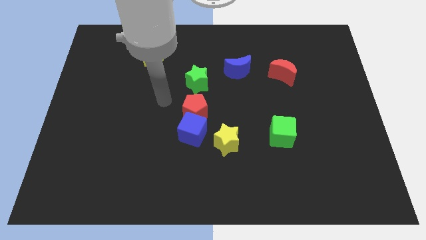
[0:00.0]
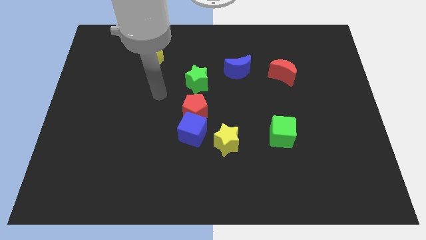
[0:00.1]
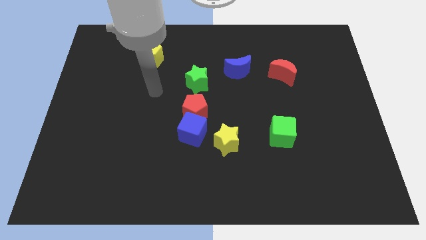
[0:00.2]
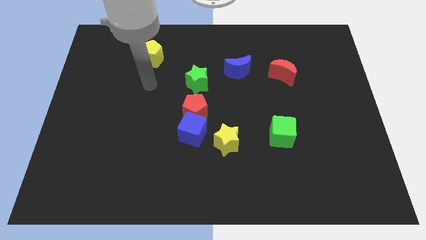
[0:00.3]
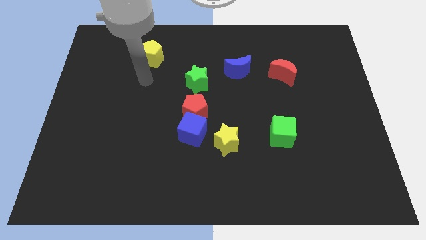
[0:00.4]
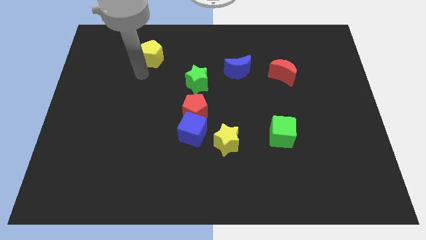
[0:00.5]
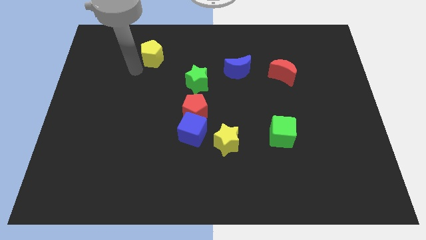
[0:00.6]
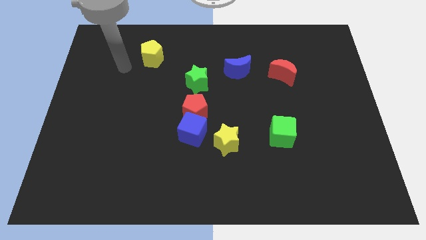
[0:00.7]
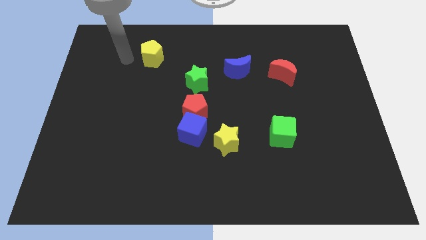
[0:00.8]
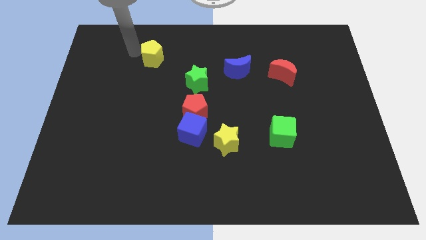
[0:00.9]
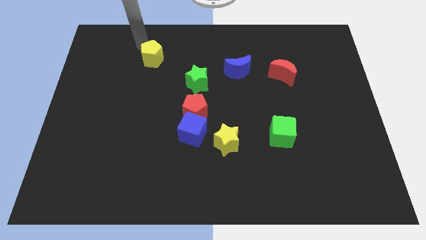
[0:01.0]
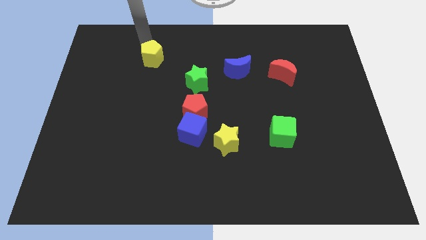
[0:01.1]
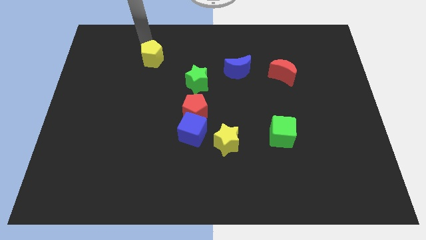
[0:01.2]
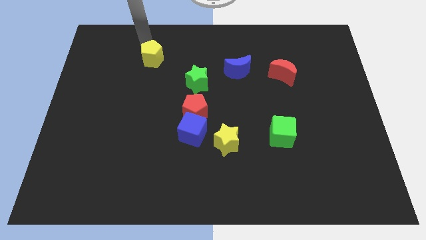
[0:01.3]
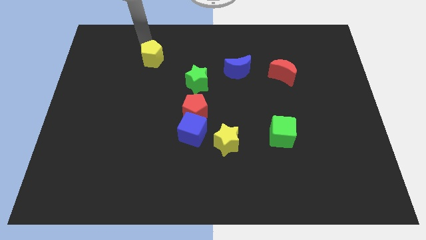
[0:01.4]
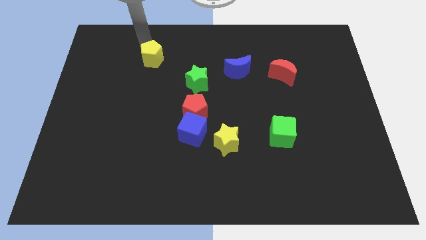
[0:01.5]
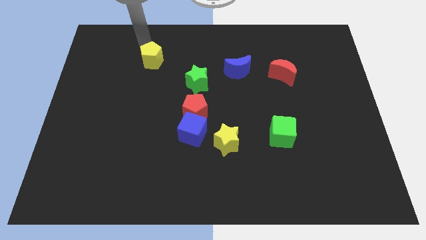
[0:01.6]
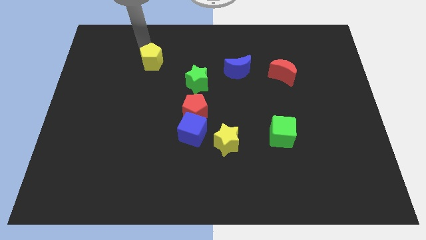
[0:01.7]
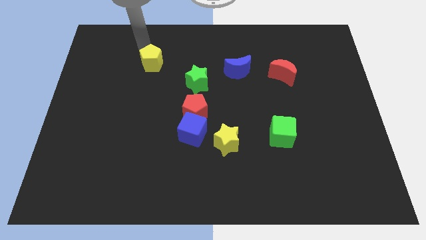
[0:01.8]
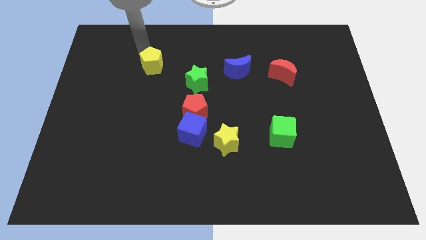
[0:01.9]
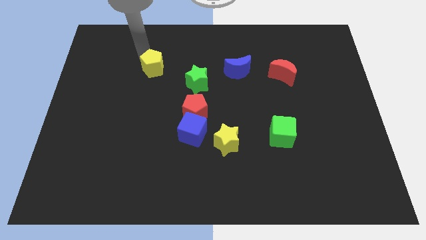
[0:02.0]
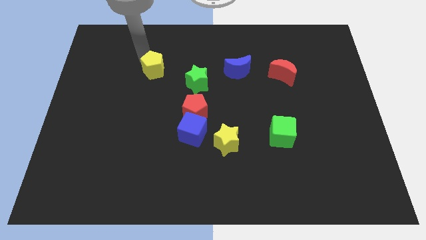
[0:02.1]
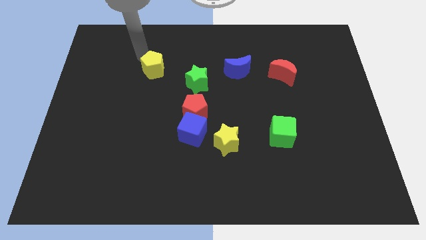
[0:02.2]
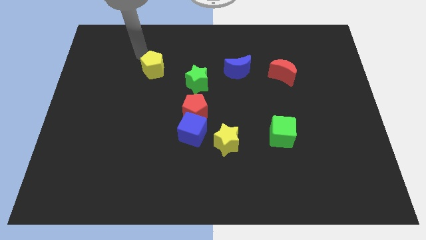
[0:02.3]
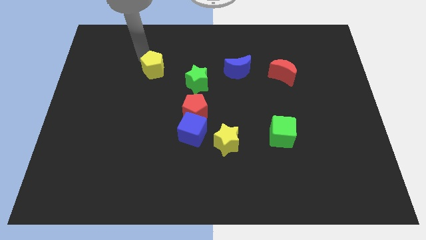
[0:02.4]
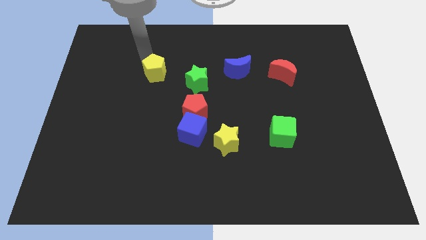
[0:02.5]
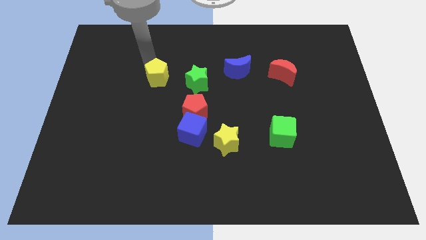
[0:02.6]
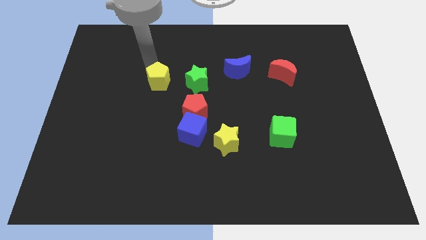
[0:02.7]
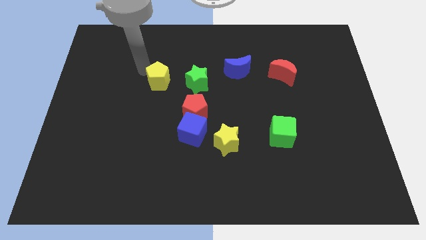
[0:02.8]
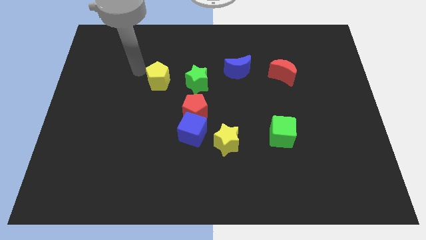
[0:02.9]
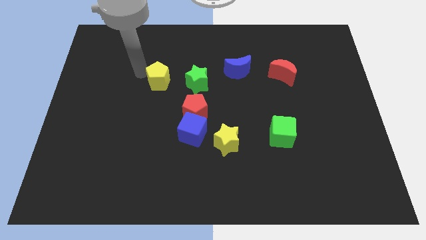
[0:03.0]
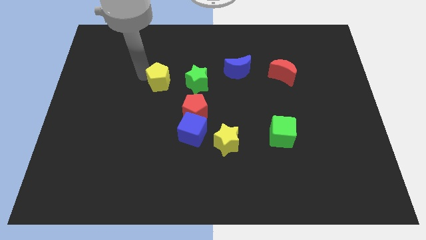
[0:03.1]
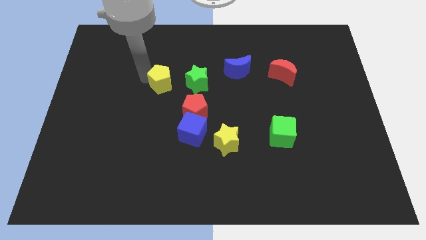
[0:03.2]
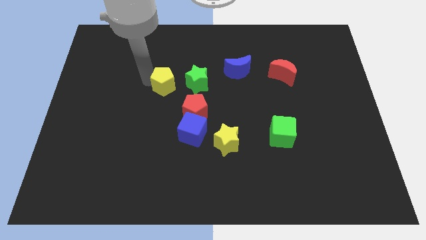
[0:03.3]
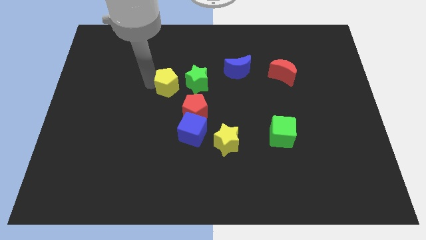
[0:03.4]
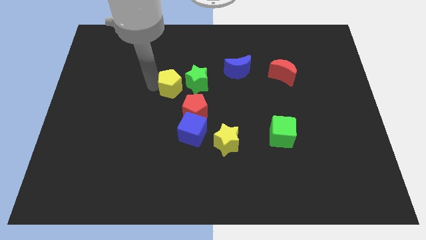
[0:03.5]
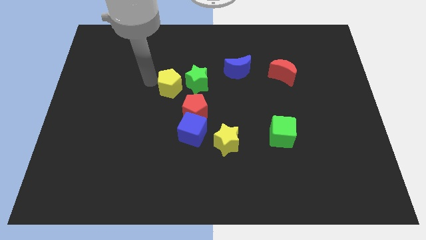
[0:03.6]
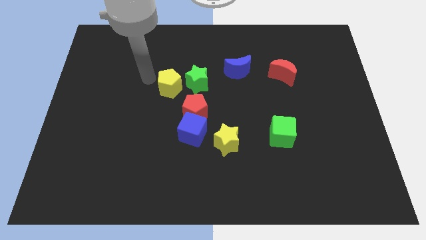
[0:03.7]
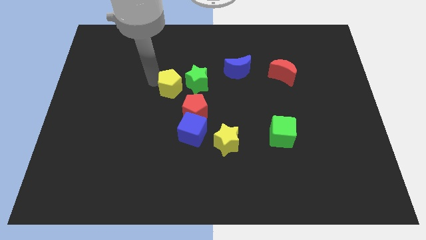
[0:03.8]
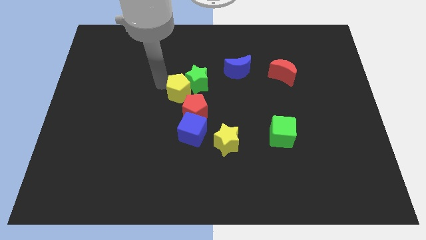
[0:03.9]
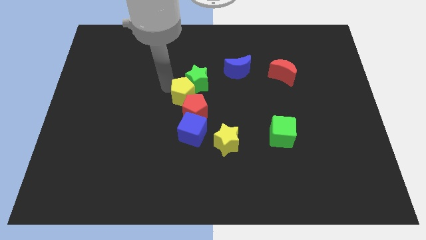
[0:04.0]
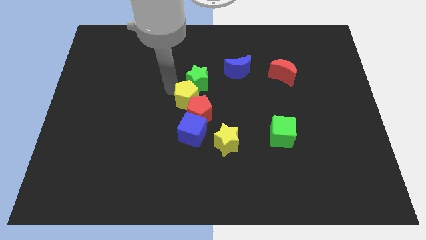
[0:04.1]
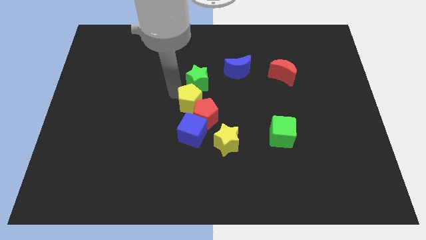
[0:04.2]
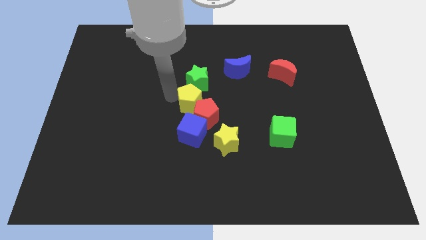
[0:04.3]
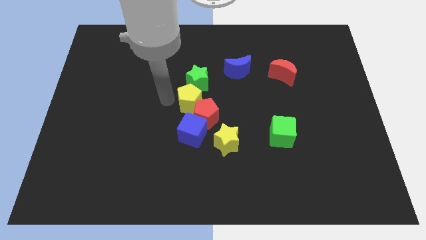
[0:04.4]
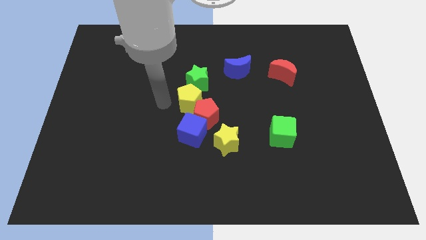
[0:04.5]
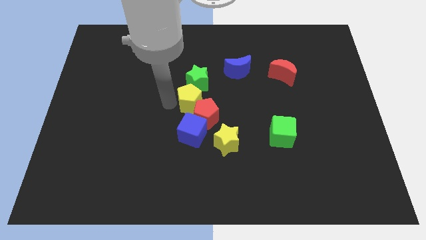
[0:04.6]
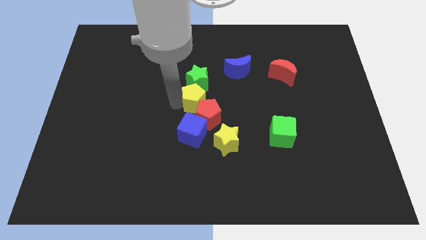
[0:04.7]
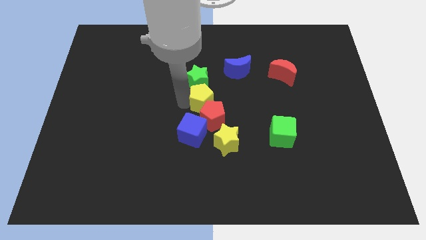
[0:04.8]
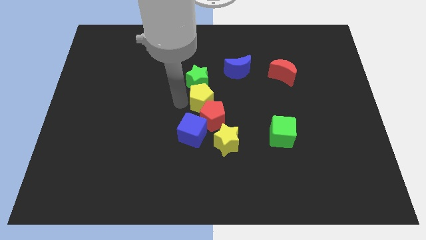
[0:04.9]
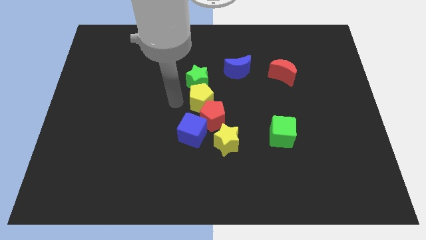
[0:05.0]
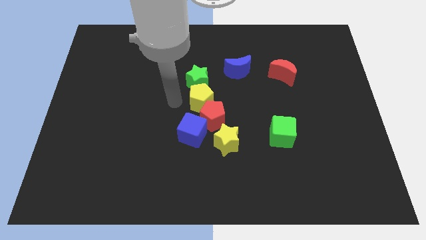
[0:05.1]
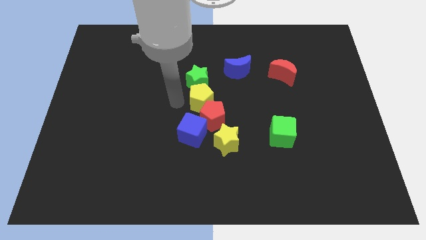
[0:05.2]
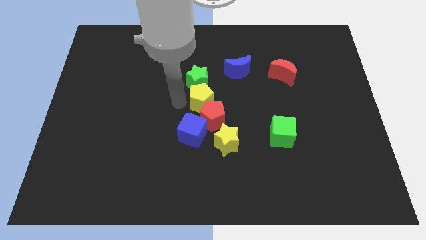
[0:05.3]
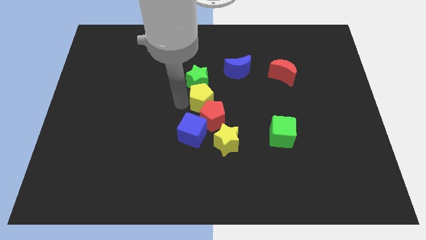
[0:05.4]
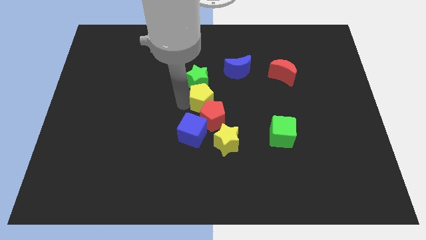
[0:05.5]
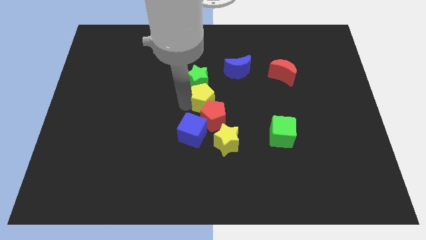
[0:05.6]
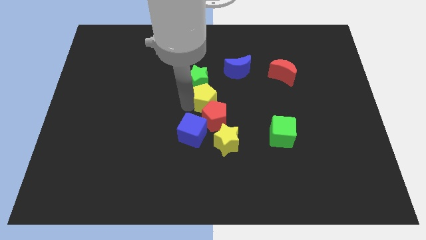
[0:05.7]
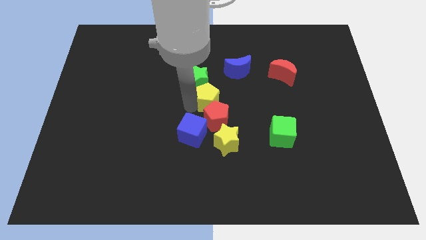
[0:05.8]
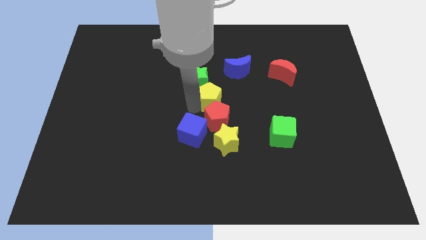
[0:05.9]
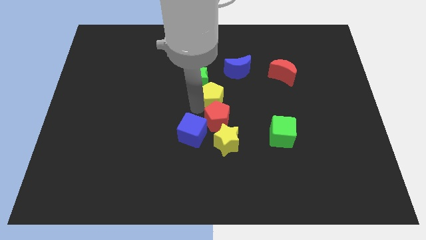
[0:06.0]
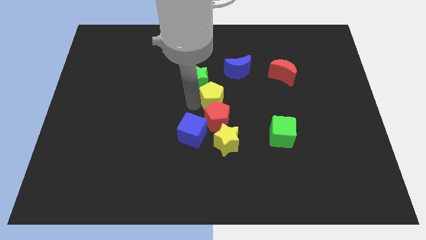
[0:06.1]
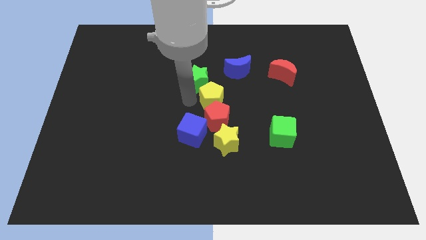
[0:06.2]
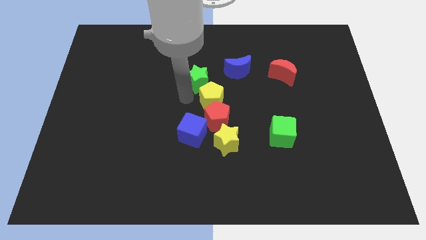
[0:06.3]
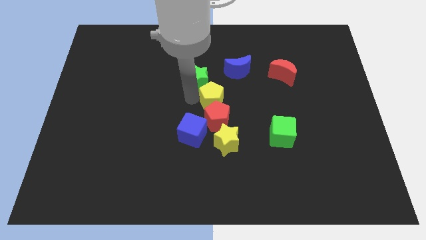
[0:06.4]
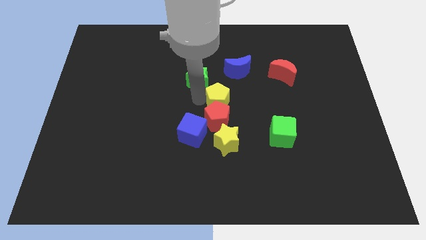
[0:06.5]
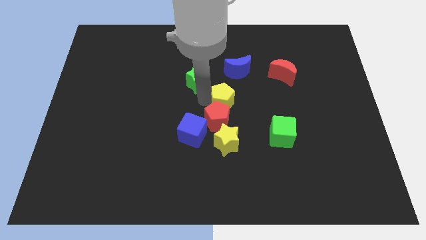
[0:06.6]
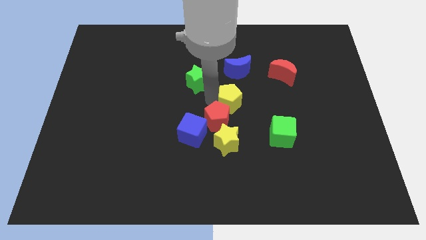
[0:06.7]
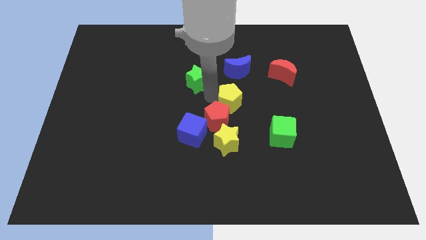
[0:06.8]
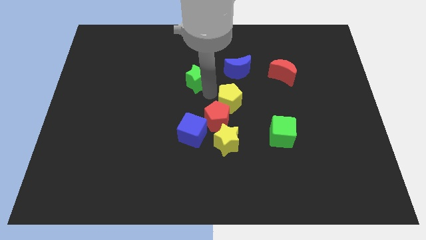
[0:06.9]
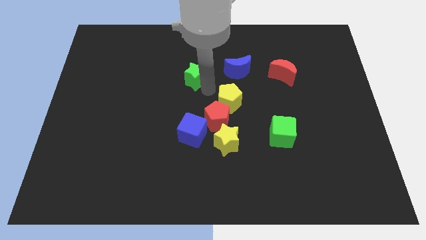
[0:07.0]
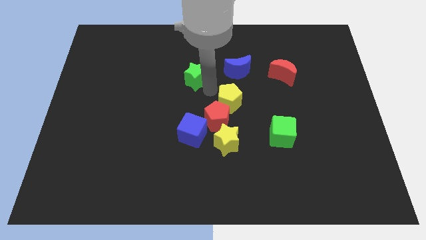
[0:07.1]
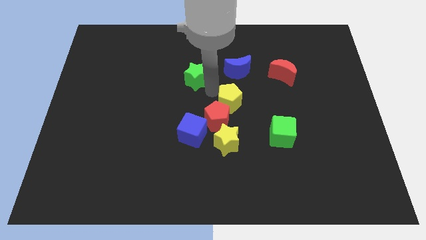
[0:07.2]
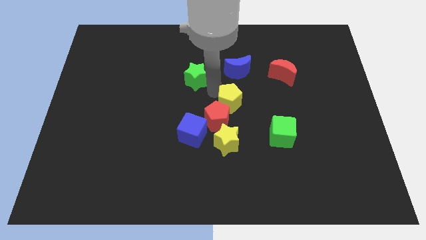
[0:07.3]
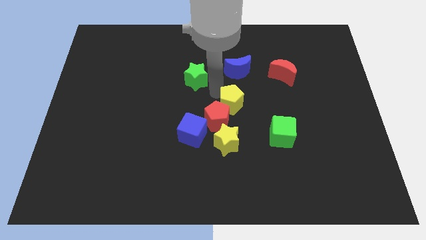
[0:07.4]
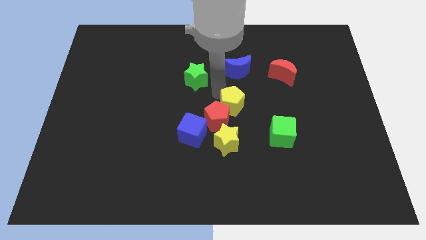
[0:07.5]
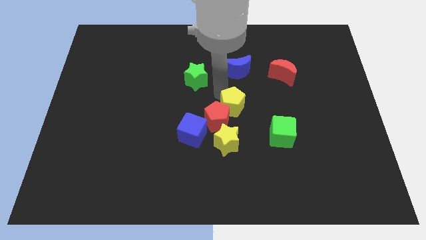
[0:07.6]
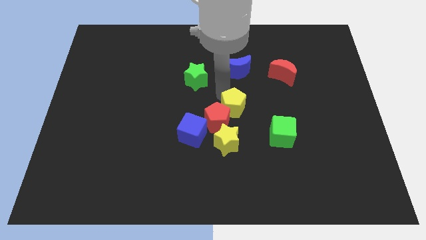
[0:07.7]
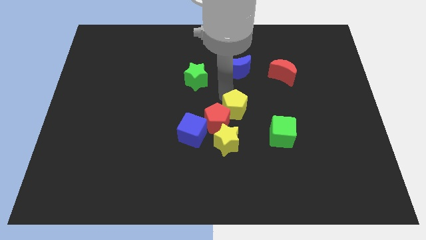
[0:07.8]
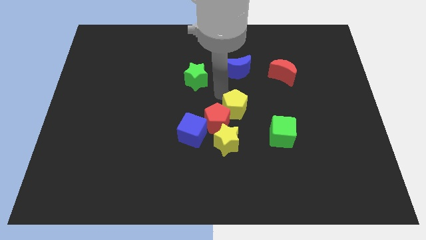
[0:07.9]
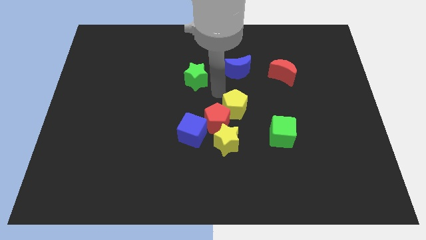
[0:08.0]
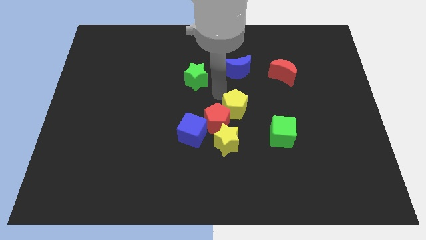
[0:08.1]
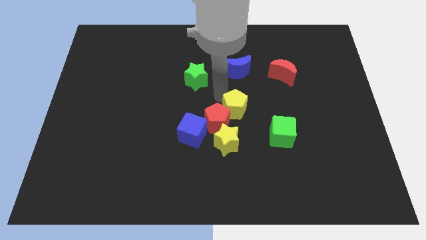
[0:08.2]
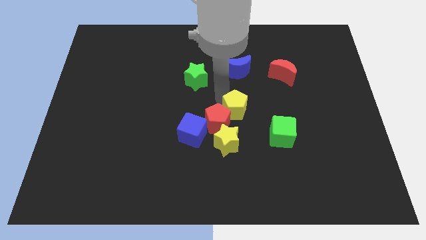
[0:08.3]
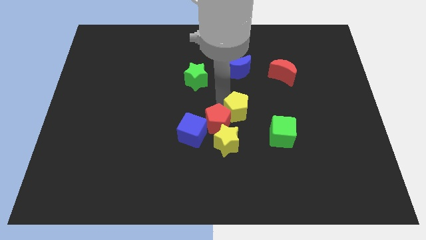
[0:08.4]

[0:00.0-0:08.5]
push the yellow pentagon diagonally up and to the right of the yellow star
